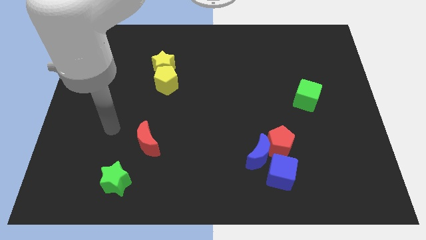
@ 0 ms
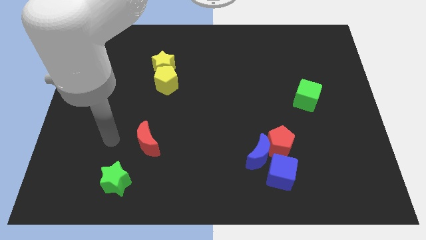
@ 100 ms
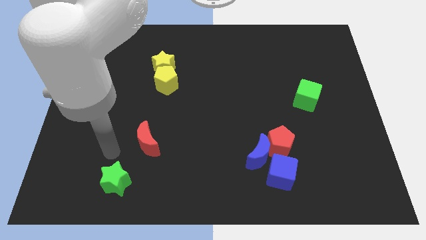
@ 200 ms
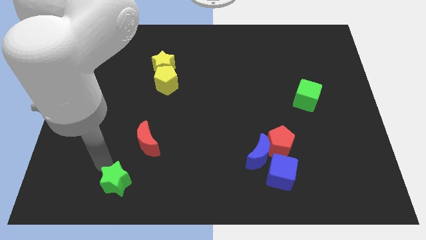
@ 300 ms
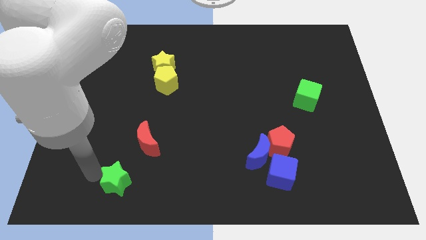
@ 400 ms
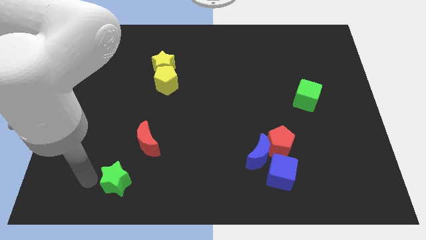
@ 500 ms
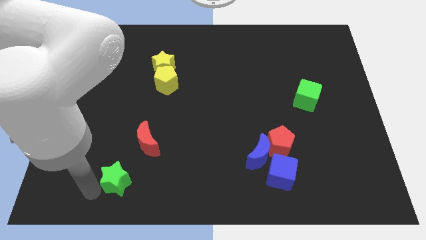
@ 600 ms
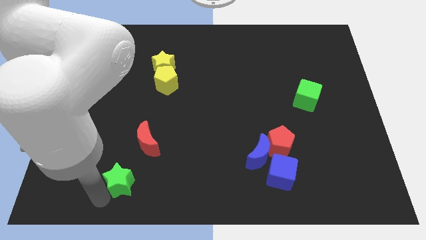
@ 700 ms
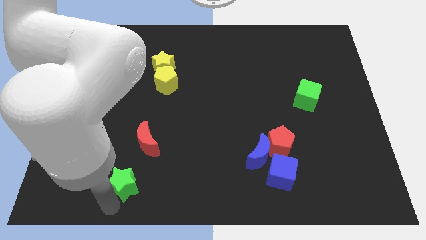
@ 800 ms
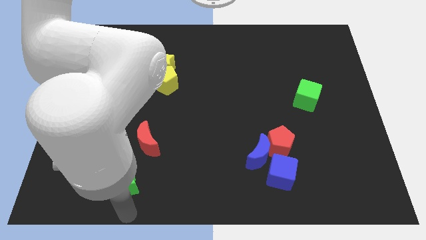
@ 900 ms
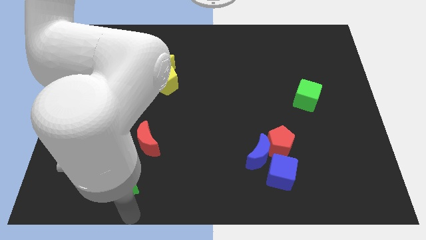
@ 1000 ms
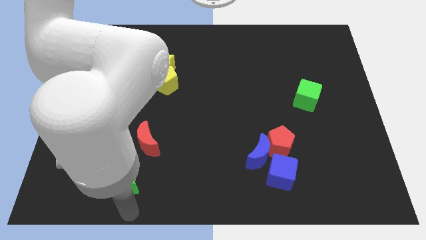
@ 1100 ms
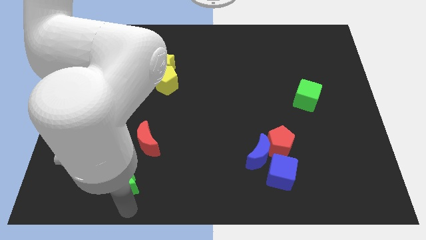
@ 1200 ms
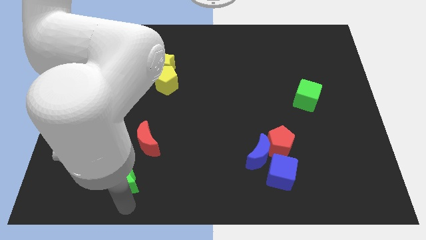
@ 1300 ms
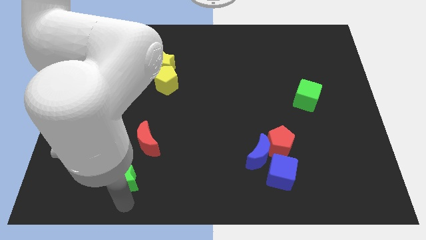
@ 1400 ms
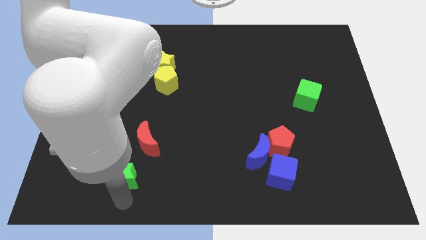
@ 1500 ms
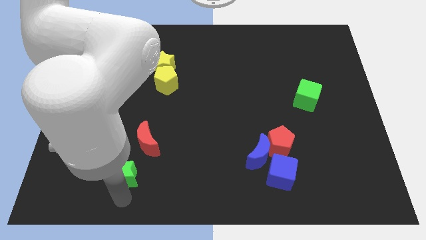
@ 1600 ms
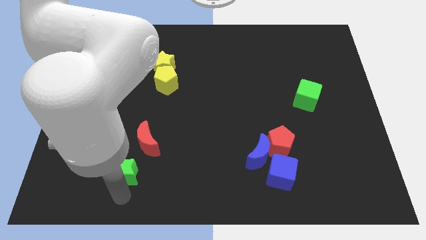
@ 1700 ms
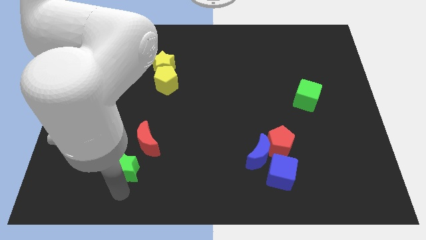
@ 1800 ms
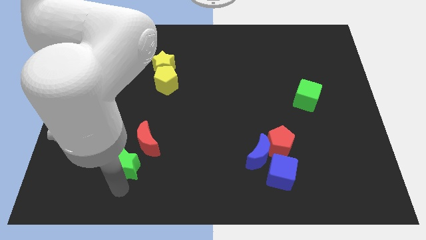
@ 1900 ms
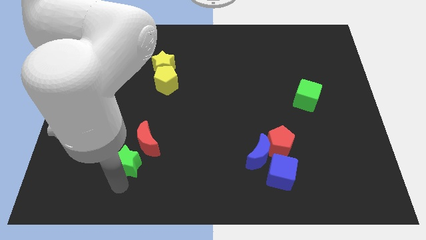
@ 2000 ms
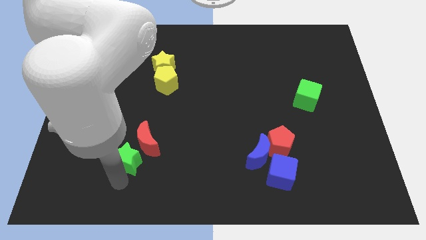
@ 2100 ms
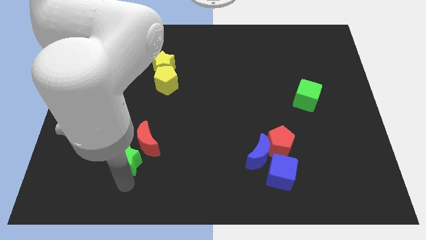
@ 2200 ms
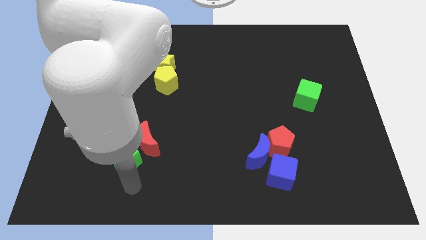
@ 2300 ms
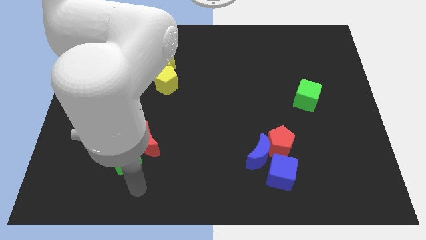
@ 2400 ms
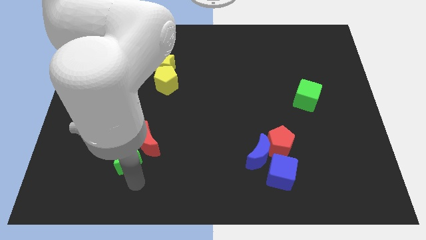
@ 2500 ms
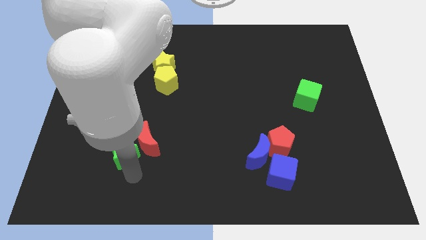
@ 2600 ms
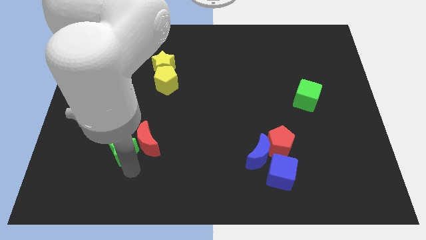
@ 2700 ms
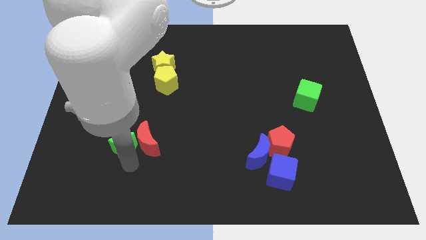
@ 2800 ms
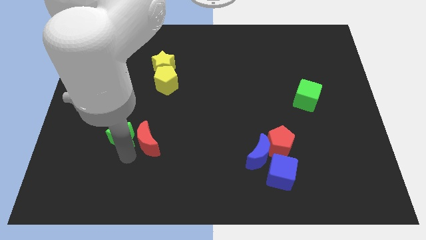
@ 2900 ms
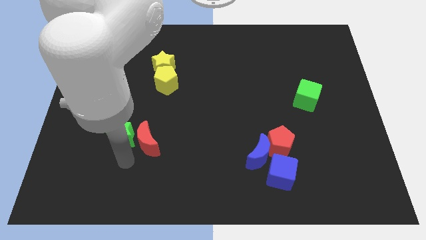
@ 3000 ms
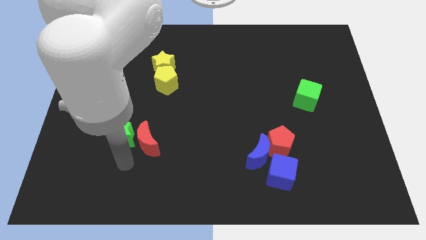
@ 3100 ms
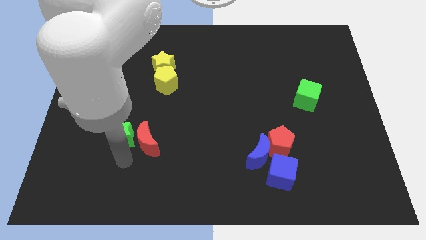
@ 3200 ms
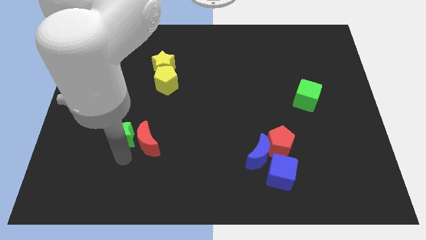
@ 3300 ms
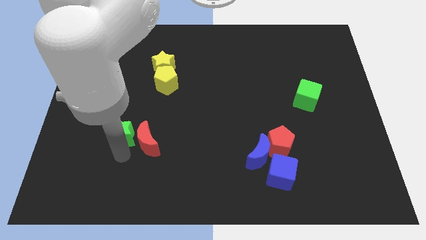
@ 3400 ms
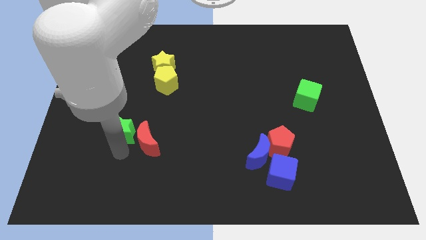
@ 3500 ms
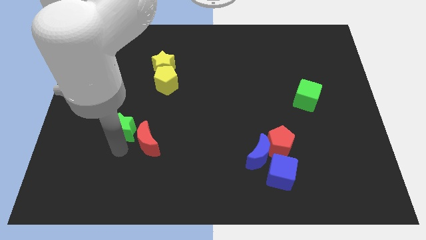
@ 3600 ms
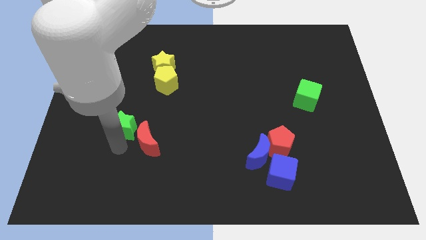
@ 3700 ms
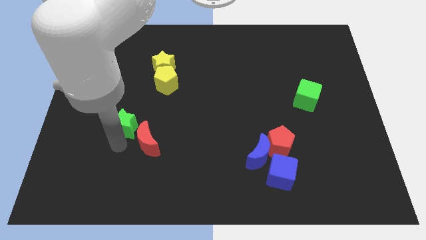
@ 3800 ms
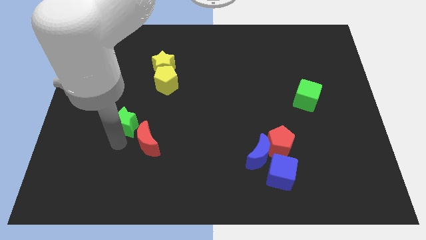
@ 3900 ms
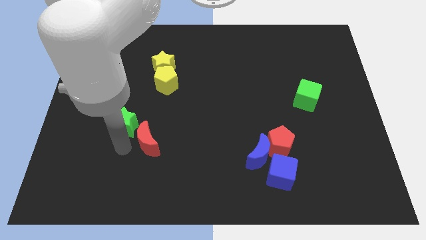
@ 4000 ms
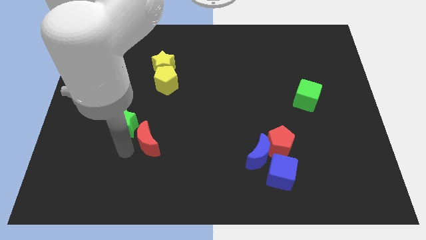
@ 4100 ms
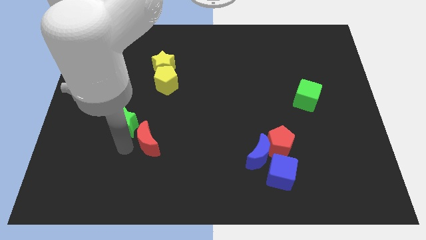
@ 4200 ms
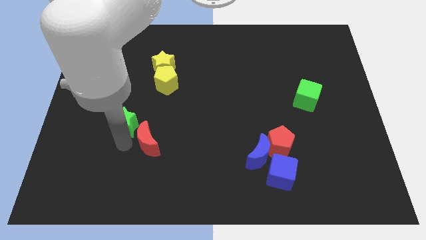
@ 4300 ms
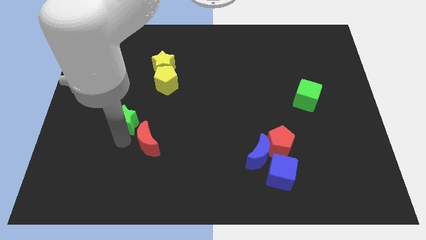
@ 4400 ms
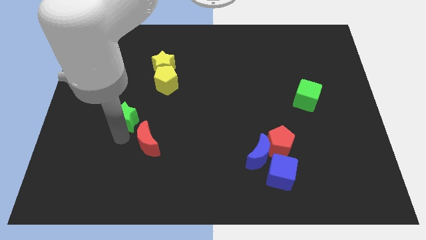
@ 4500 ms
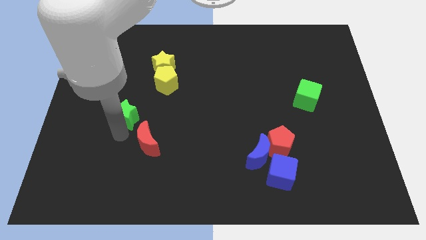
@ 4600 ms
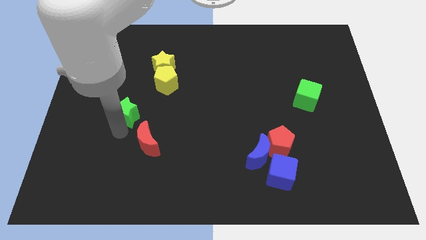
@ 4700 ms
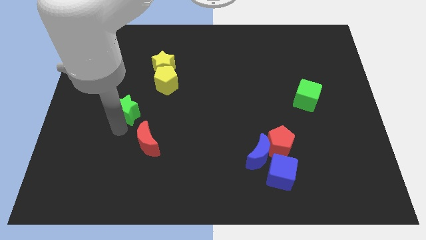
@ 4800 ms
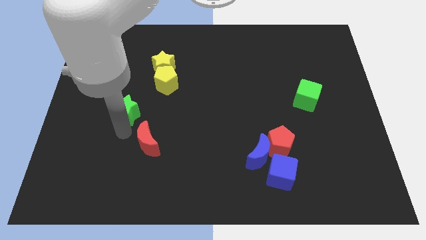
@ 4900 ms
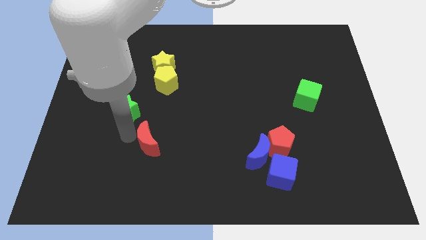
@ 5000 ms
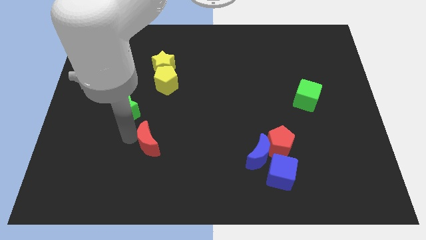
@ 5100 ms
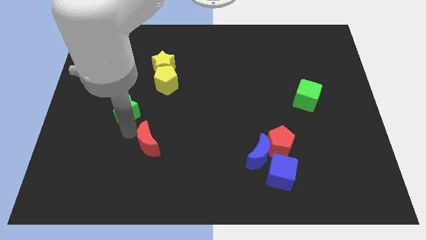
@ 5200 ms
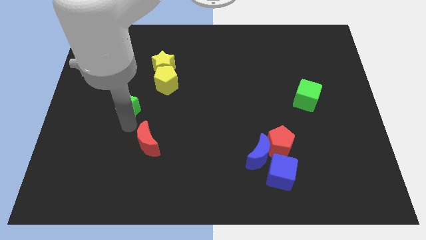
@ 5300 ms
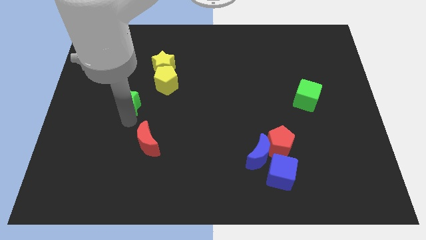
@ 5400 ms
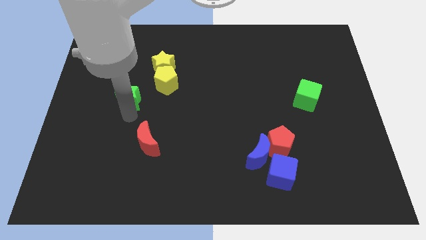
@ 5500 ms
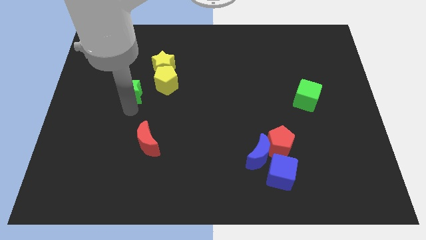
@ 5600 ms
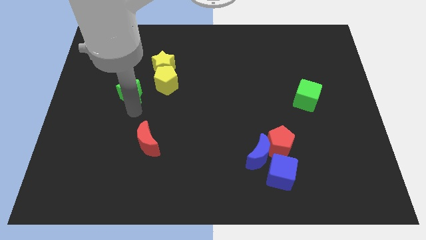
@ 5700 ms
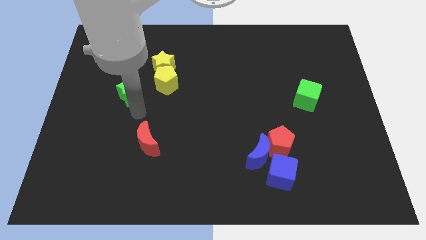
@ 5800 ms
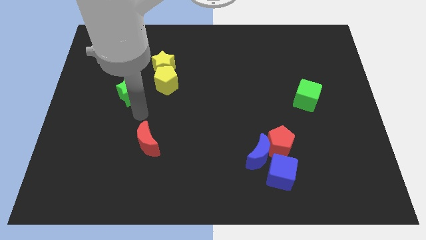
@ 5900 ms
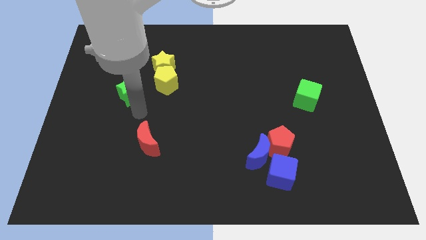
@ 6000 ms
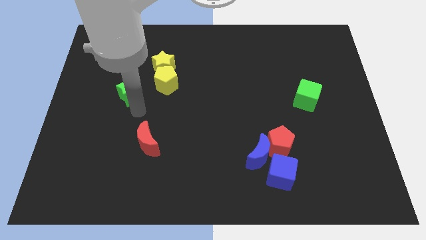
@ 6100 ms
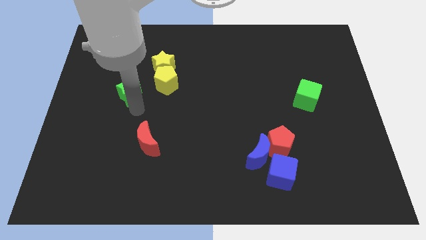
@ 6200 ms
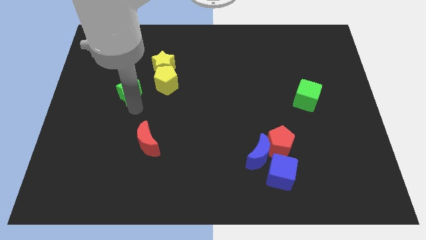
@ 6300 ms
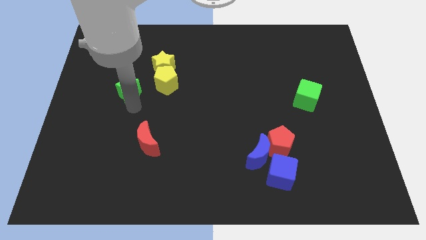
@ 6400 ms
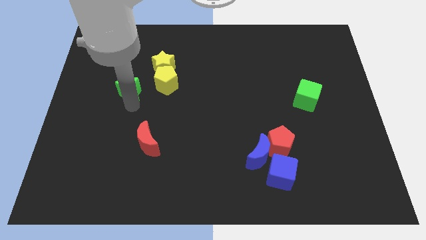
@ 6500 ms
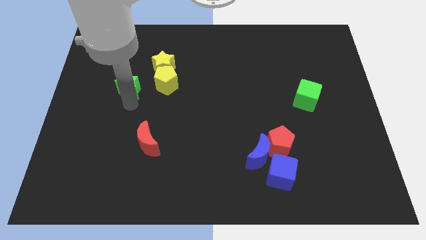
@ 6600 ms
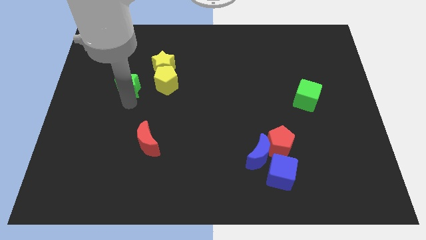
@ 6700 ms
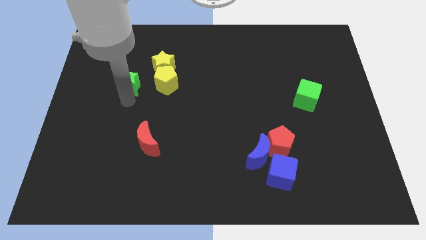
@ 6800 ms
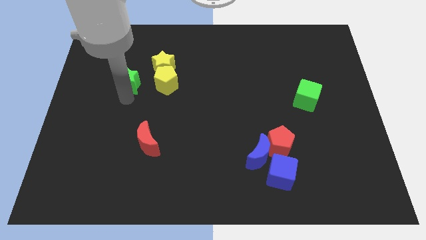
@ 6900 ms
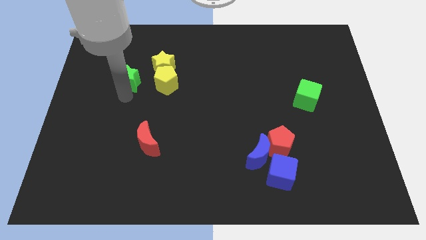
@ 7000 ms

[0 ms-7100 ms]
move the green star to the left of the yellow star

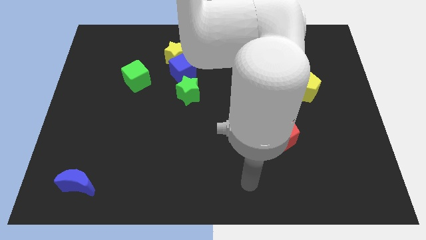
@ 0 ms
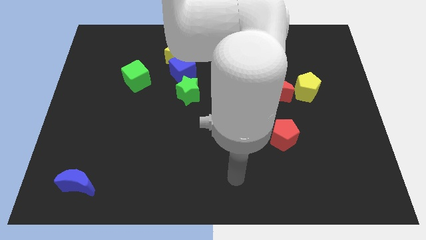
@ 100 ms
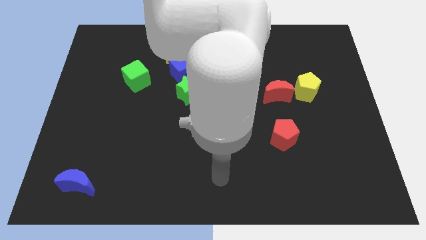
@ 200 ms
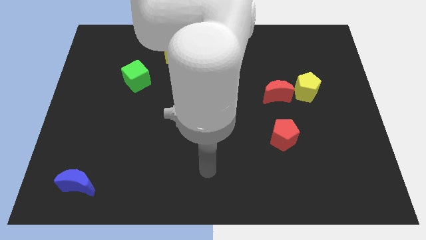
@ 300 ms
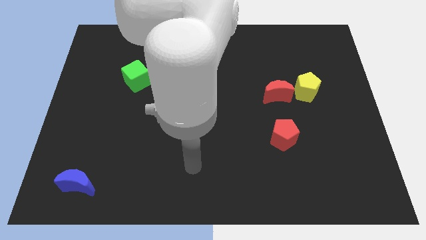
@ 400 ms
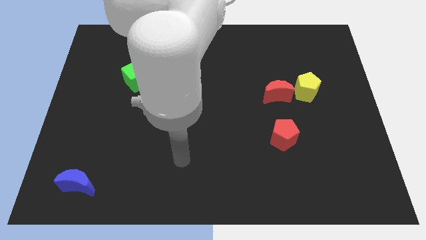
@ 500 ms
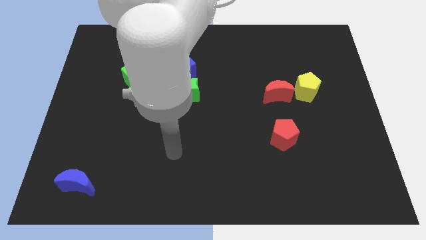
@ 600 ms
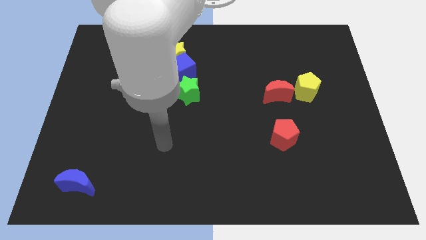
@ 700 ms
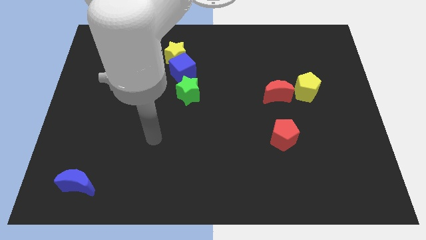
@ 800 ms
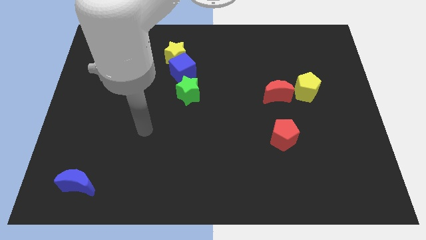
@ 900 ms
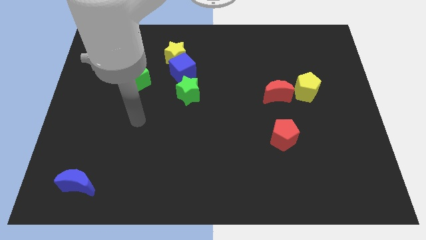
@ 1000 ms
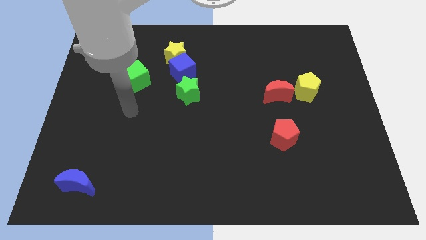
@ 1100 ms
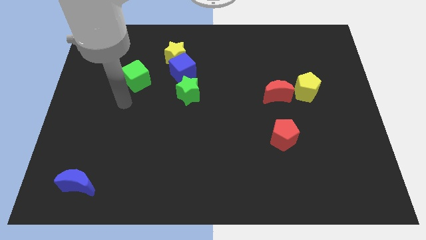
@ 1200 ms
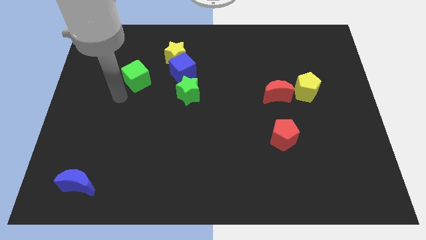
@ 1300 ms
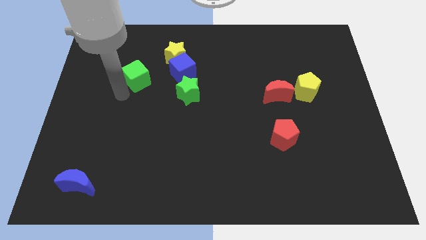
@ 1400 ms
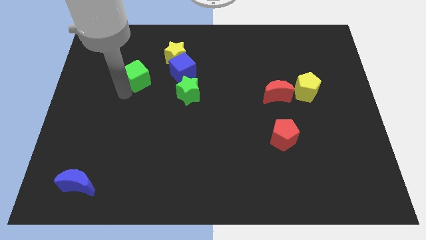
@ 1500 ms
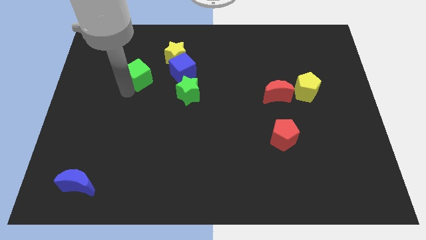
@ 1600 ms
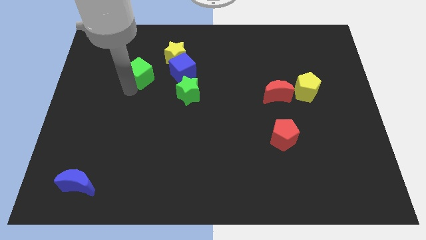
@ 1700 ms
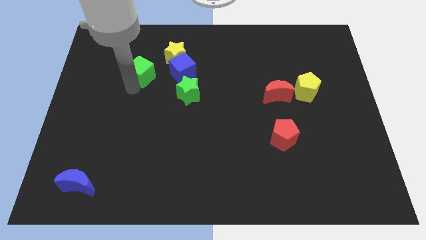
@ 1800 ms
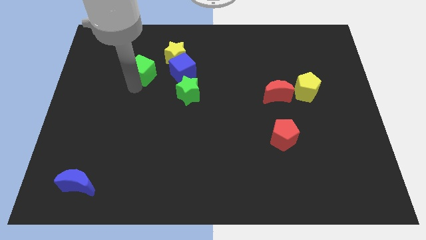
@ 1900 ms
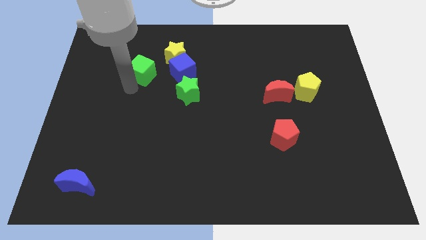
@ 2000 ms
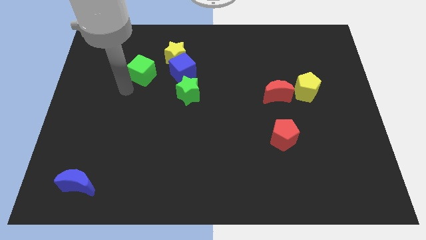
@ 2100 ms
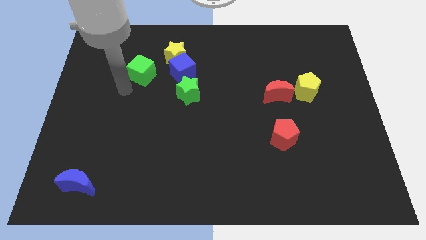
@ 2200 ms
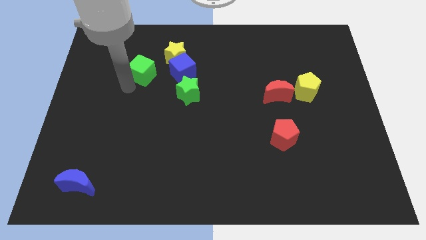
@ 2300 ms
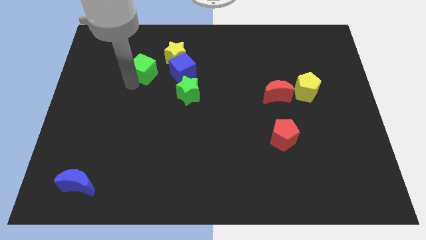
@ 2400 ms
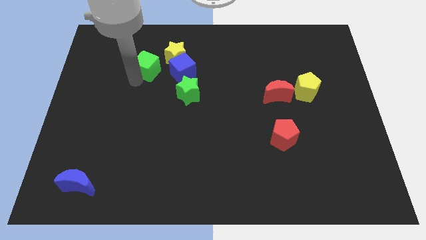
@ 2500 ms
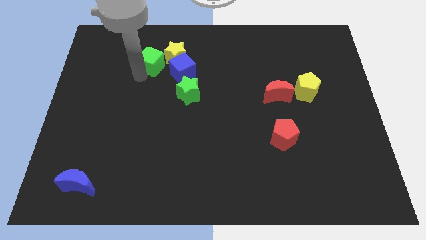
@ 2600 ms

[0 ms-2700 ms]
slide the green cube to the top left of the blue cube
